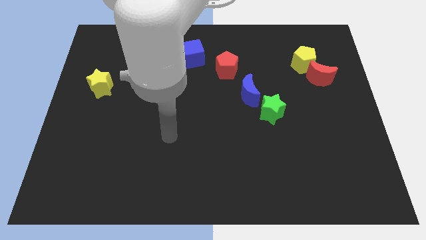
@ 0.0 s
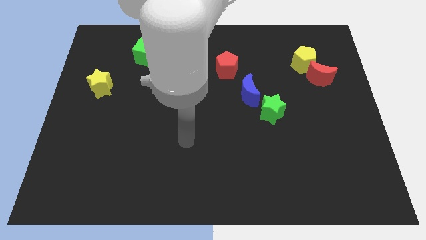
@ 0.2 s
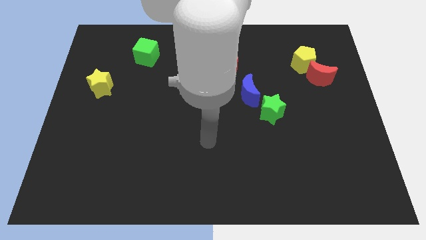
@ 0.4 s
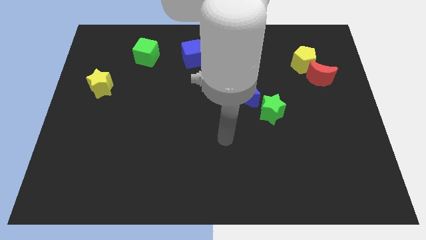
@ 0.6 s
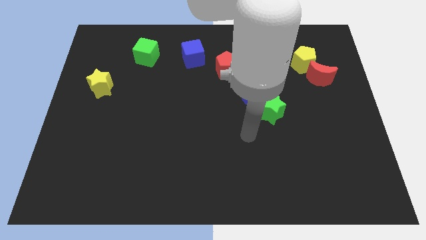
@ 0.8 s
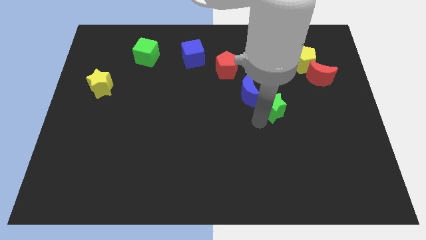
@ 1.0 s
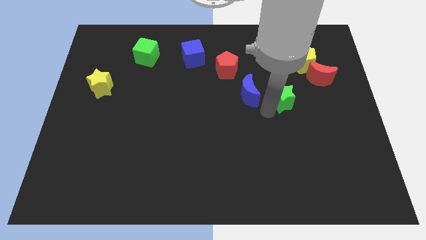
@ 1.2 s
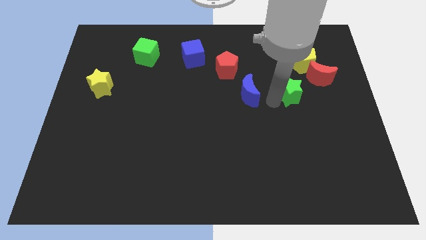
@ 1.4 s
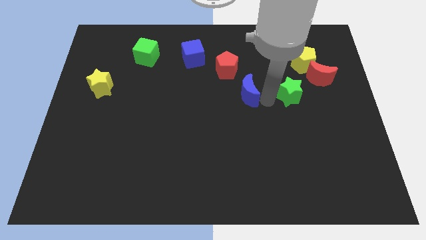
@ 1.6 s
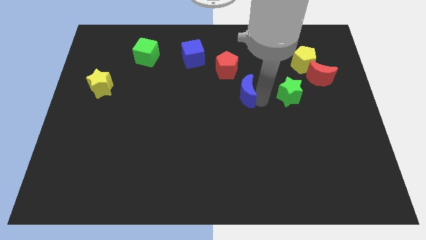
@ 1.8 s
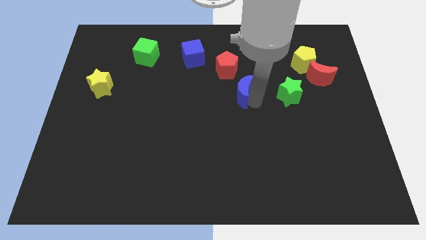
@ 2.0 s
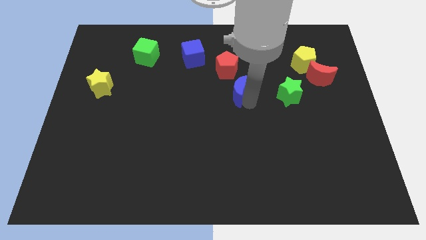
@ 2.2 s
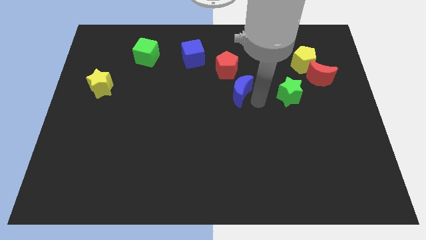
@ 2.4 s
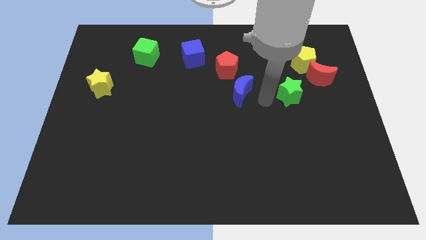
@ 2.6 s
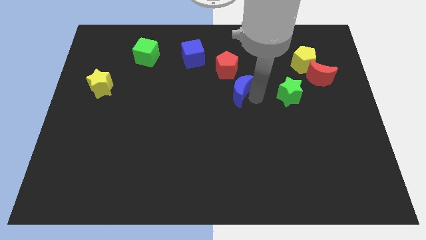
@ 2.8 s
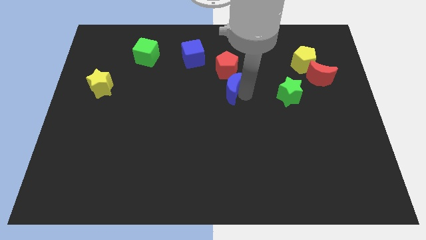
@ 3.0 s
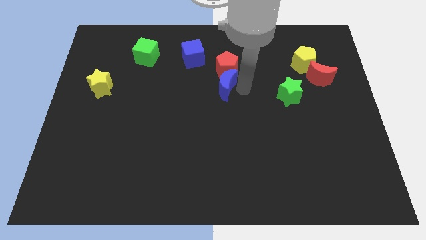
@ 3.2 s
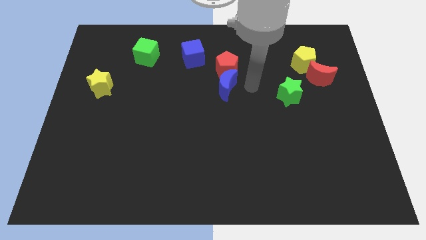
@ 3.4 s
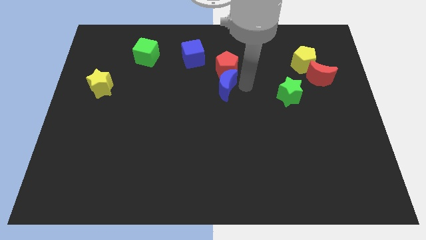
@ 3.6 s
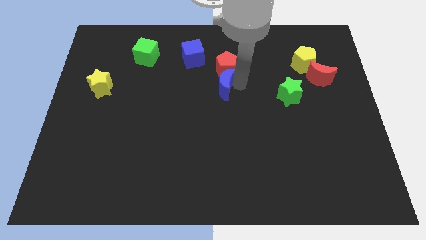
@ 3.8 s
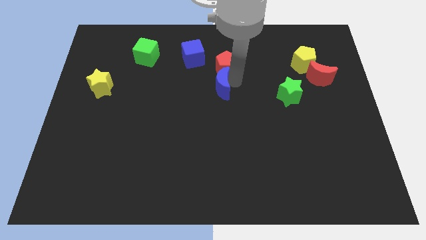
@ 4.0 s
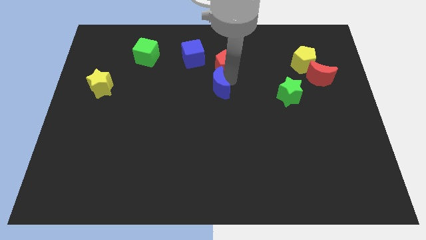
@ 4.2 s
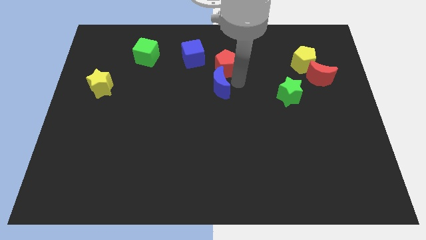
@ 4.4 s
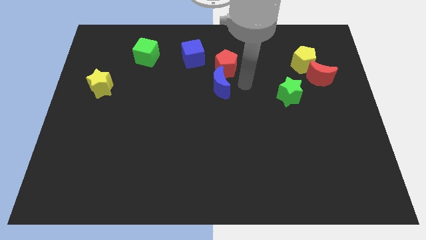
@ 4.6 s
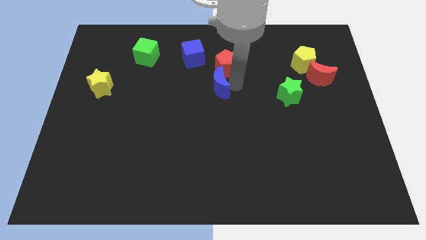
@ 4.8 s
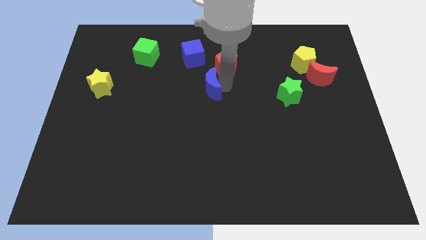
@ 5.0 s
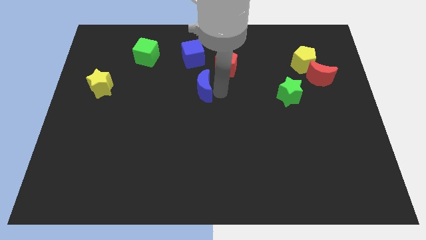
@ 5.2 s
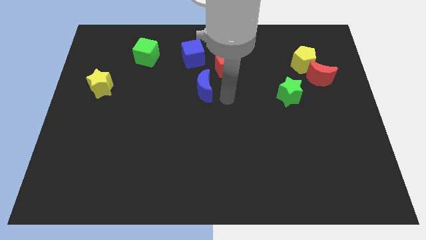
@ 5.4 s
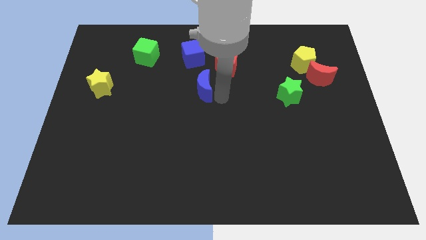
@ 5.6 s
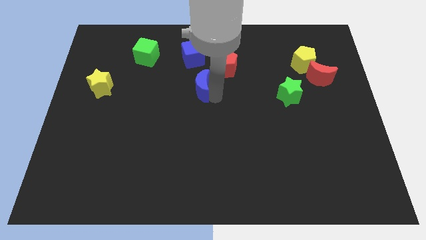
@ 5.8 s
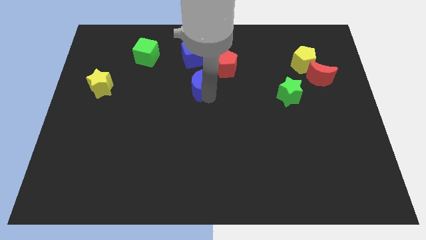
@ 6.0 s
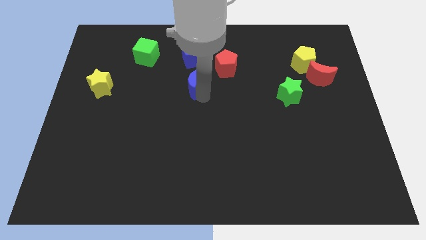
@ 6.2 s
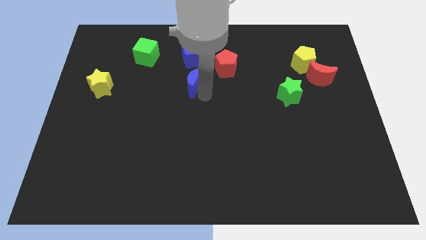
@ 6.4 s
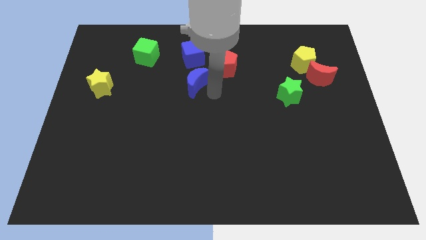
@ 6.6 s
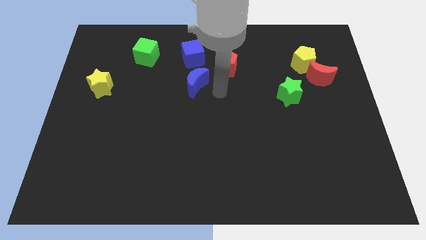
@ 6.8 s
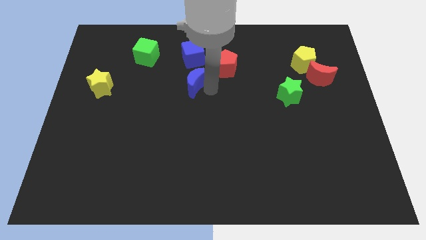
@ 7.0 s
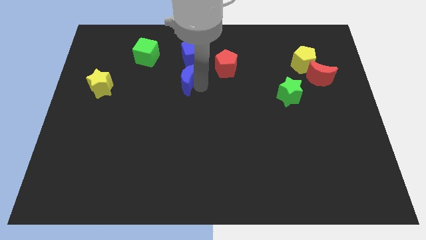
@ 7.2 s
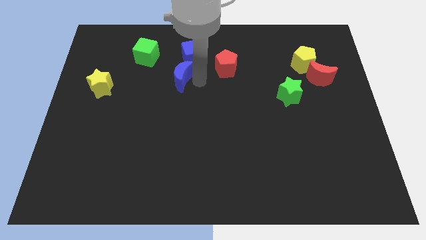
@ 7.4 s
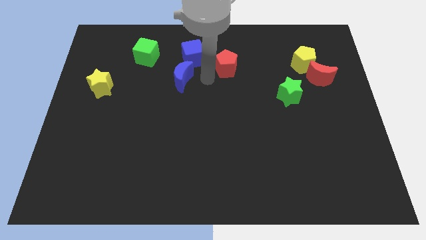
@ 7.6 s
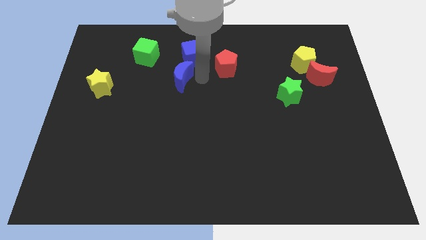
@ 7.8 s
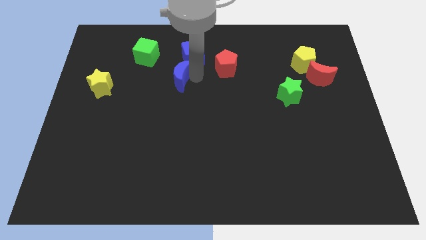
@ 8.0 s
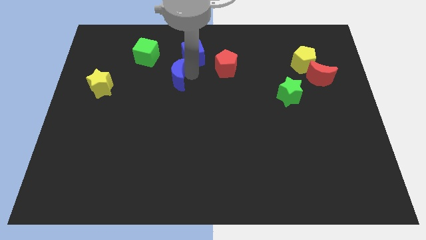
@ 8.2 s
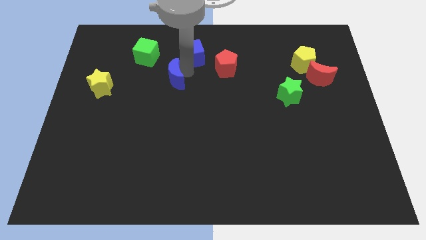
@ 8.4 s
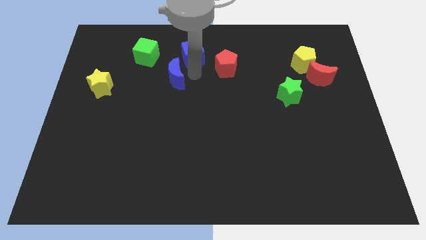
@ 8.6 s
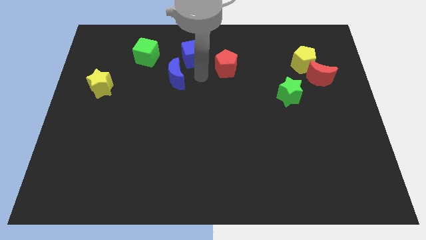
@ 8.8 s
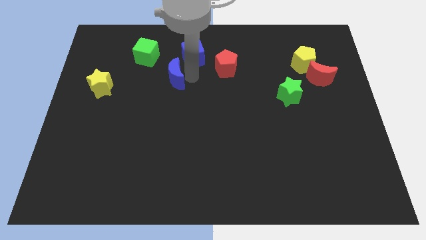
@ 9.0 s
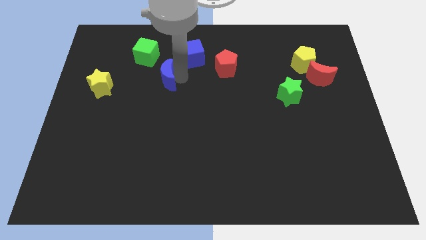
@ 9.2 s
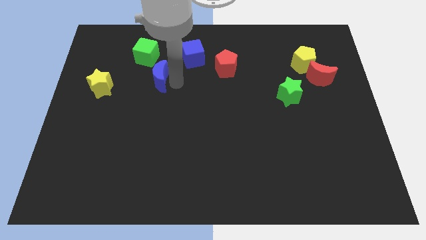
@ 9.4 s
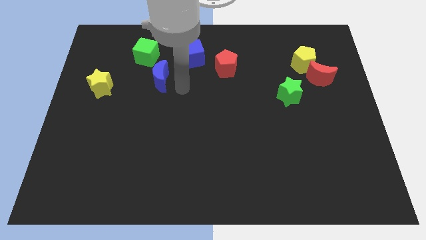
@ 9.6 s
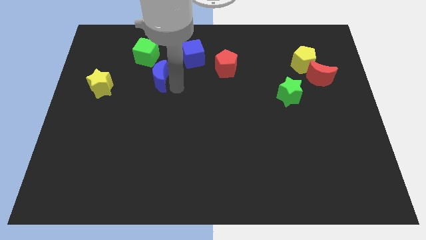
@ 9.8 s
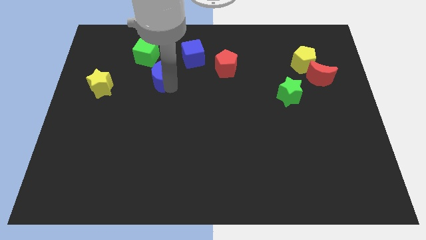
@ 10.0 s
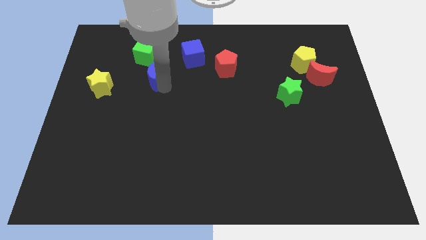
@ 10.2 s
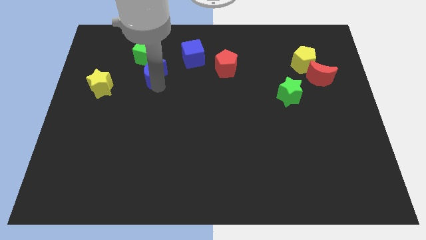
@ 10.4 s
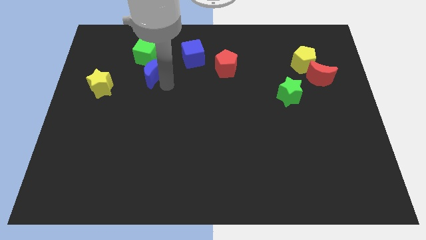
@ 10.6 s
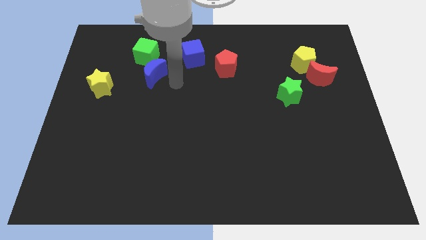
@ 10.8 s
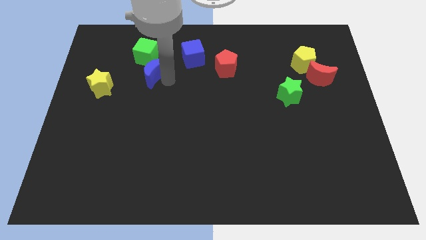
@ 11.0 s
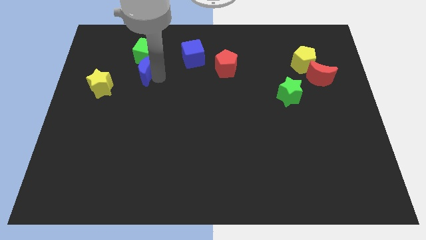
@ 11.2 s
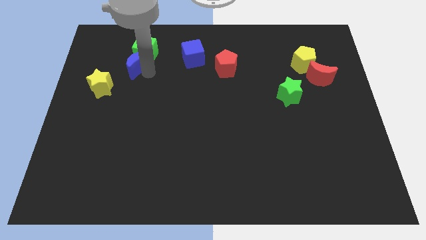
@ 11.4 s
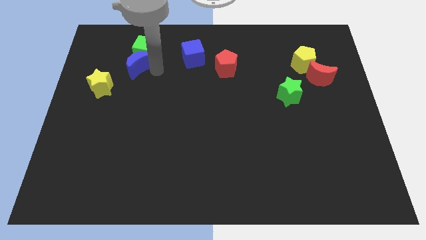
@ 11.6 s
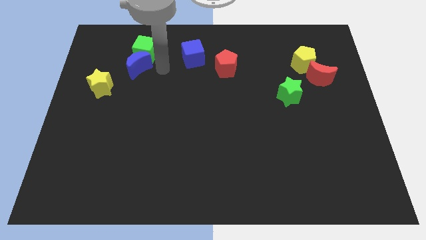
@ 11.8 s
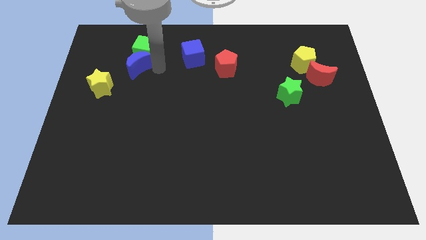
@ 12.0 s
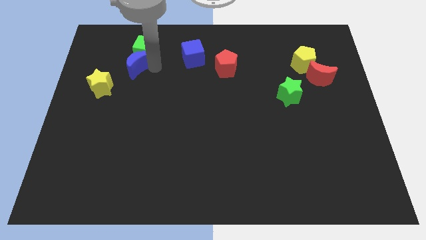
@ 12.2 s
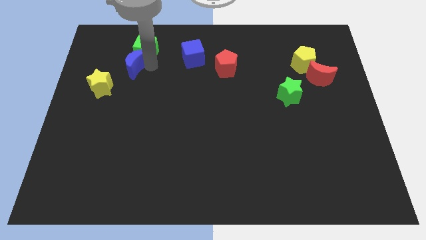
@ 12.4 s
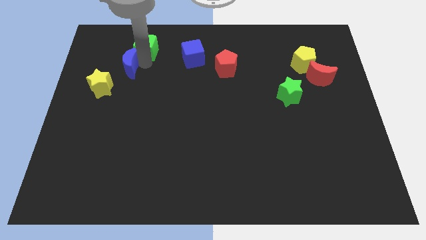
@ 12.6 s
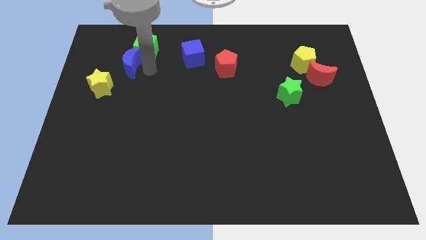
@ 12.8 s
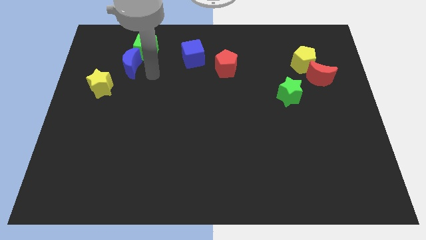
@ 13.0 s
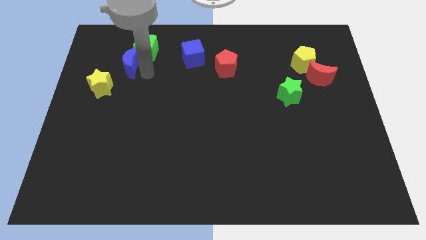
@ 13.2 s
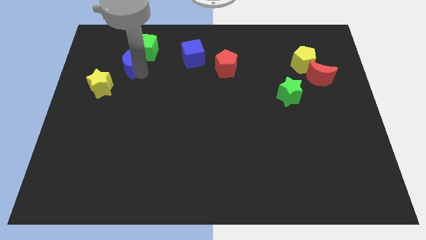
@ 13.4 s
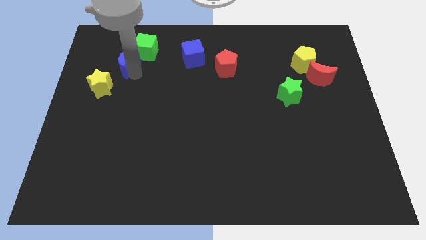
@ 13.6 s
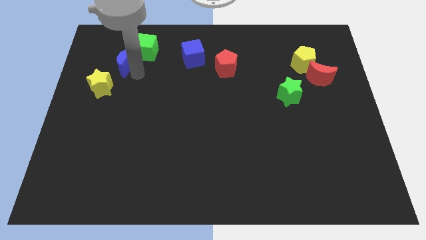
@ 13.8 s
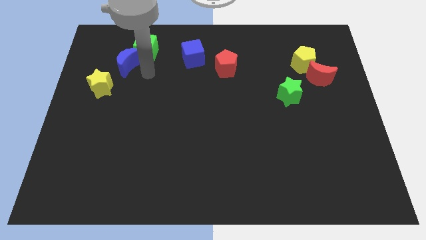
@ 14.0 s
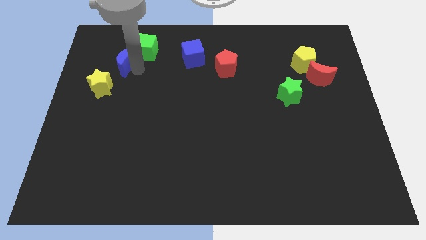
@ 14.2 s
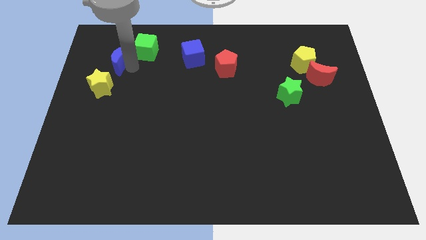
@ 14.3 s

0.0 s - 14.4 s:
move the blue moon to the top of the yellow star
